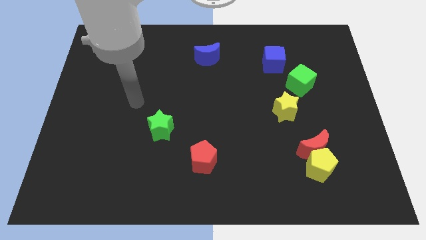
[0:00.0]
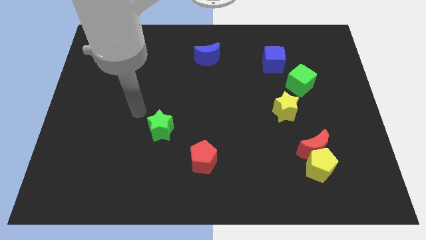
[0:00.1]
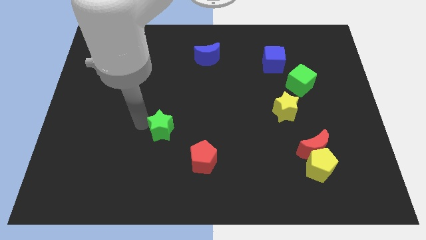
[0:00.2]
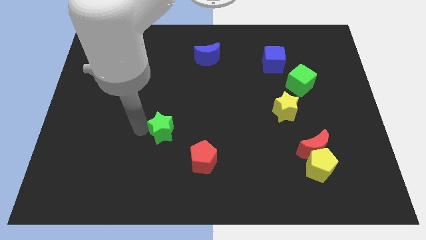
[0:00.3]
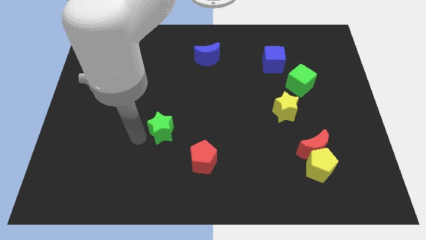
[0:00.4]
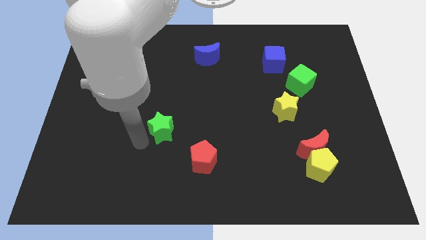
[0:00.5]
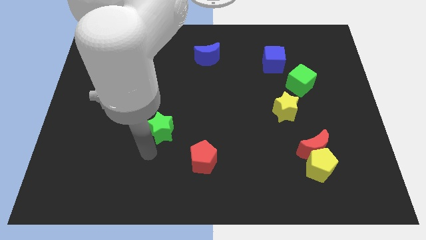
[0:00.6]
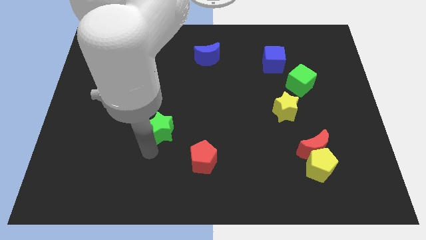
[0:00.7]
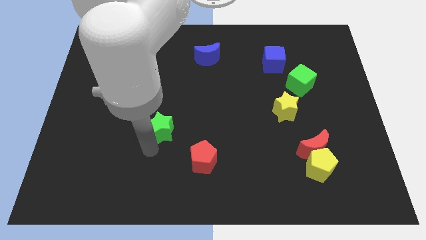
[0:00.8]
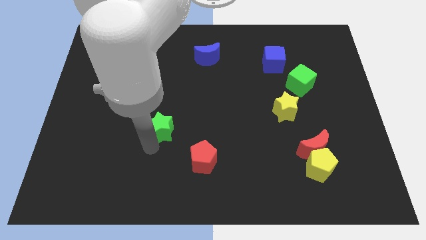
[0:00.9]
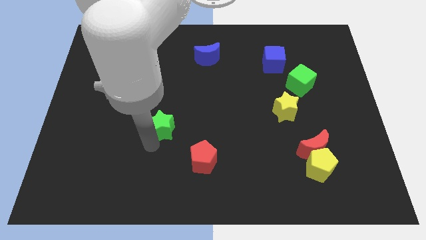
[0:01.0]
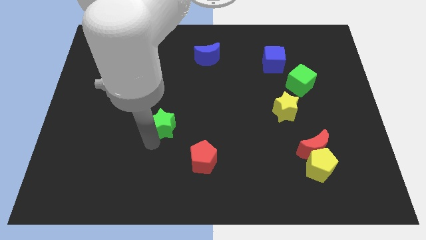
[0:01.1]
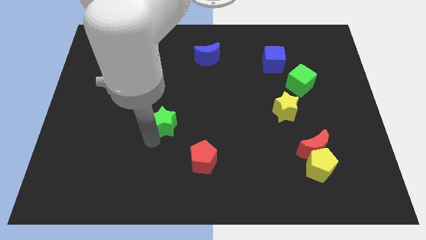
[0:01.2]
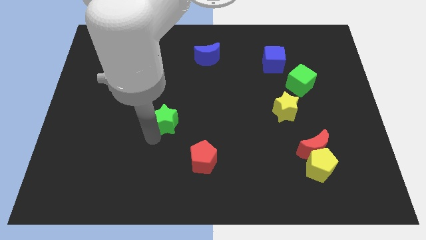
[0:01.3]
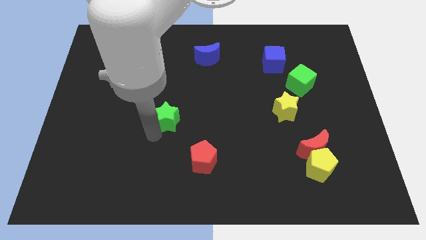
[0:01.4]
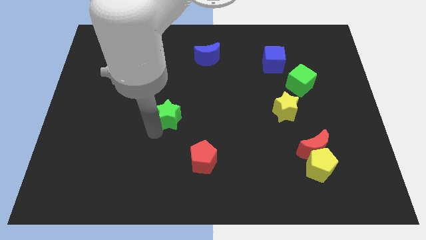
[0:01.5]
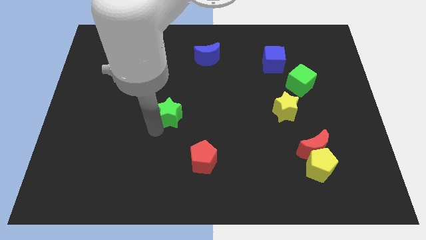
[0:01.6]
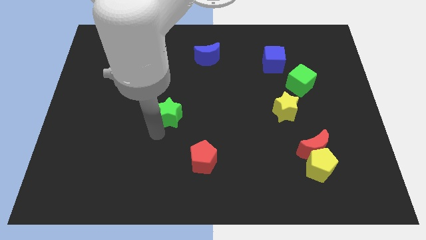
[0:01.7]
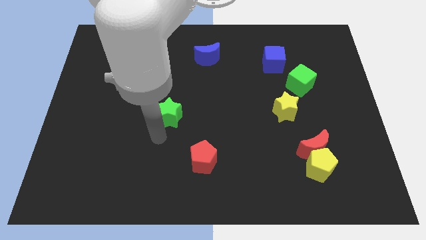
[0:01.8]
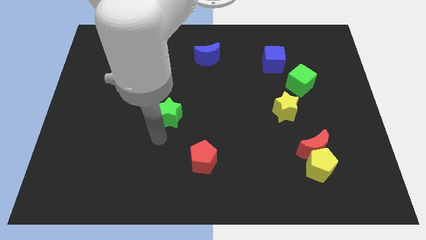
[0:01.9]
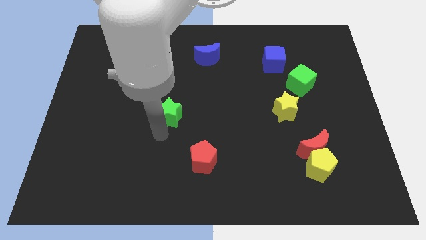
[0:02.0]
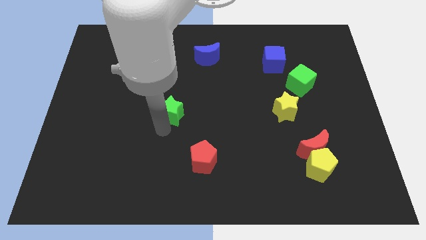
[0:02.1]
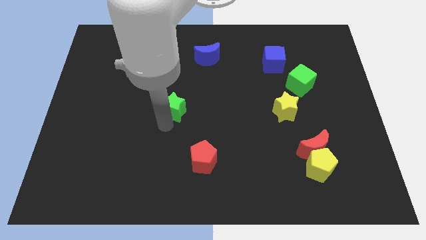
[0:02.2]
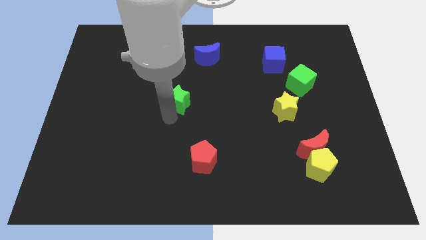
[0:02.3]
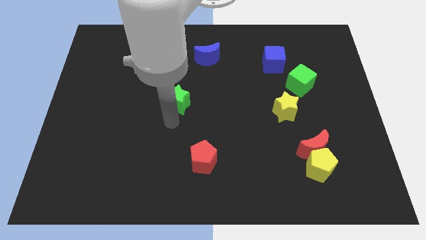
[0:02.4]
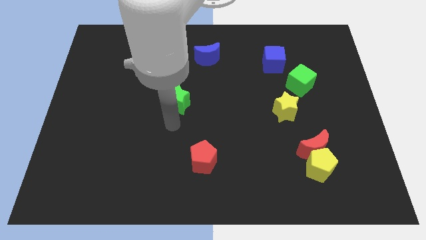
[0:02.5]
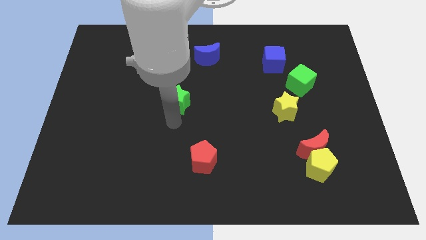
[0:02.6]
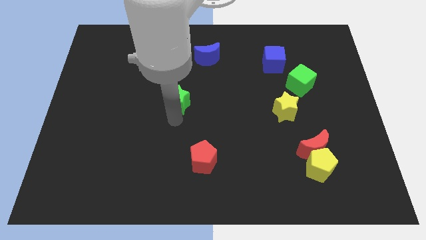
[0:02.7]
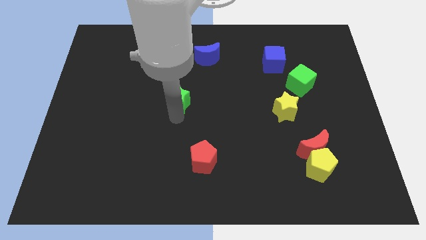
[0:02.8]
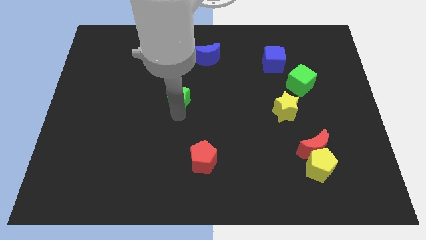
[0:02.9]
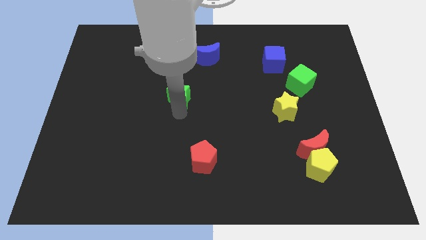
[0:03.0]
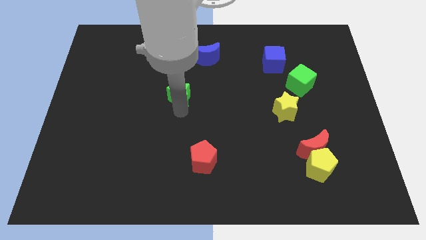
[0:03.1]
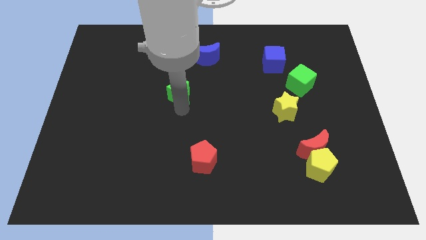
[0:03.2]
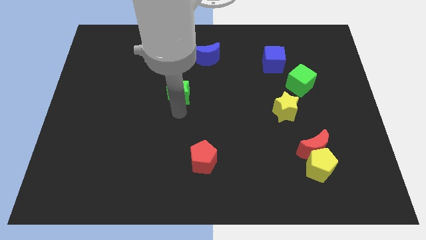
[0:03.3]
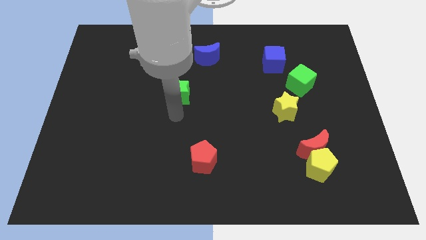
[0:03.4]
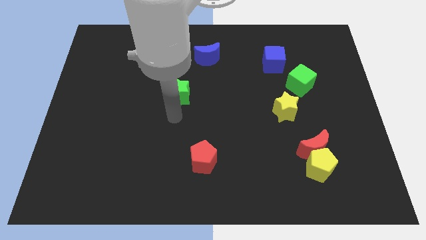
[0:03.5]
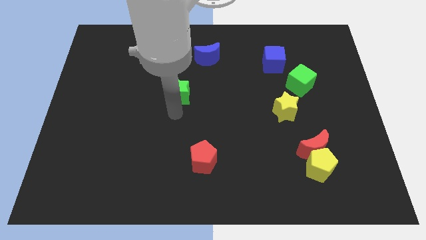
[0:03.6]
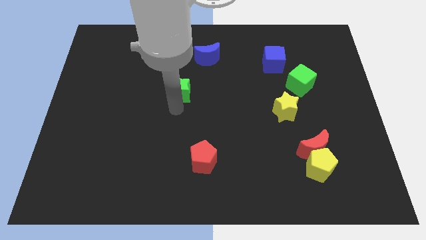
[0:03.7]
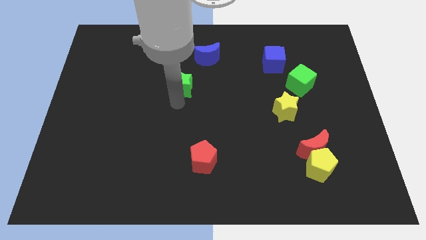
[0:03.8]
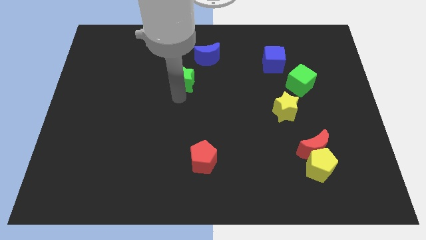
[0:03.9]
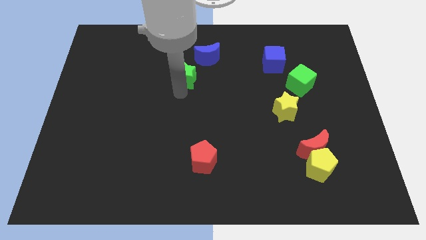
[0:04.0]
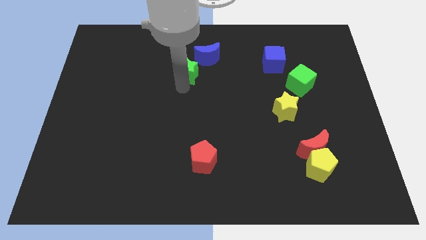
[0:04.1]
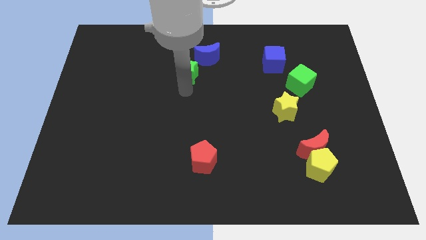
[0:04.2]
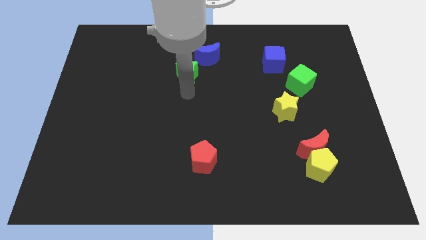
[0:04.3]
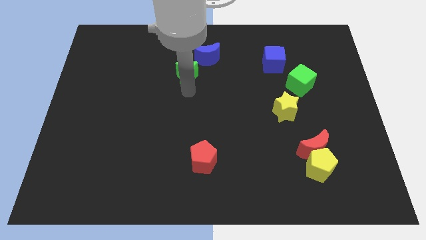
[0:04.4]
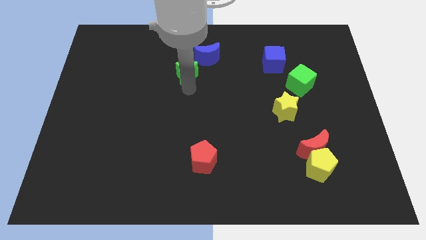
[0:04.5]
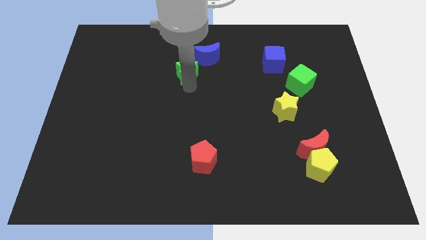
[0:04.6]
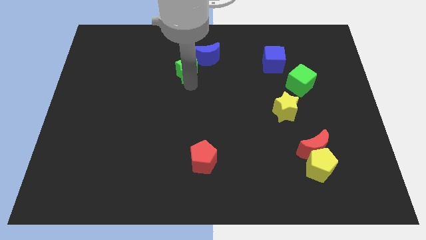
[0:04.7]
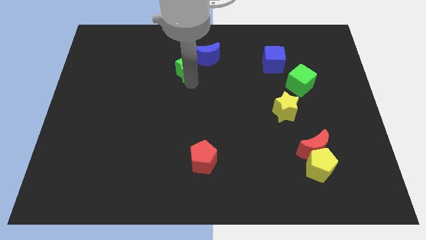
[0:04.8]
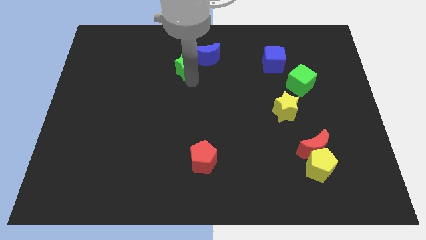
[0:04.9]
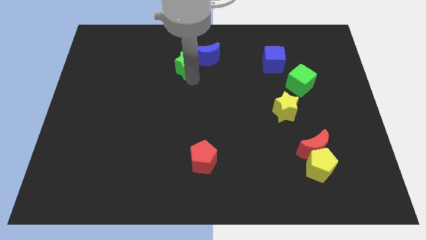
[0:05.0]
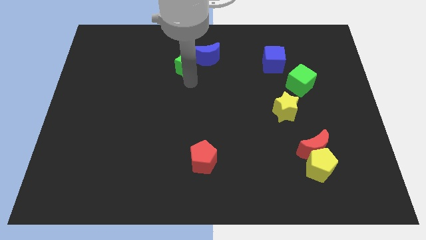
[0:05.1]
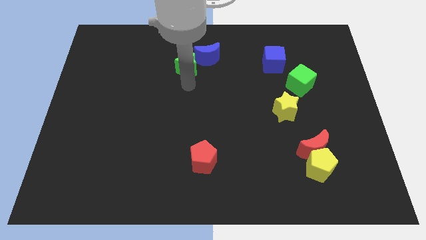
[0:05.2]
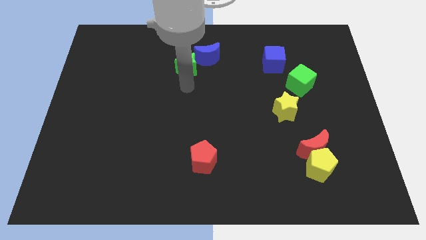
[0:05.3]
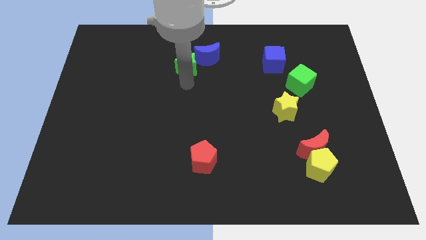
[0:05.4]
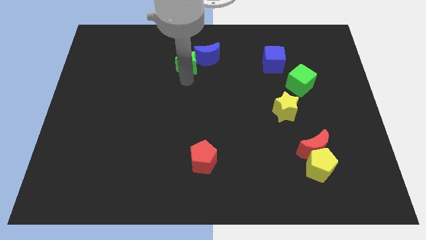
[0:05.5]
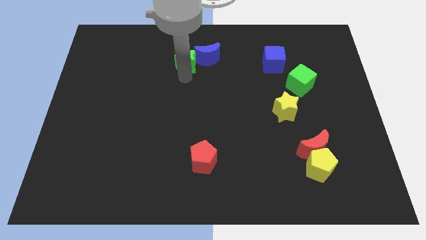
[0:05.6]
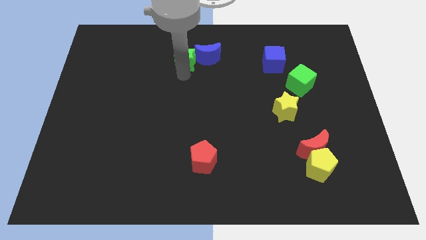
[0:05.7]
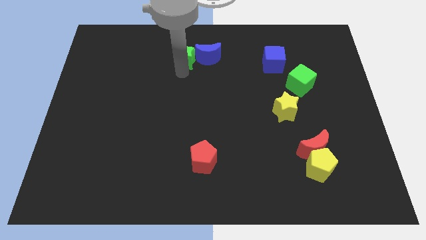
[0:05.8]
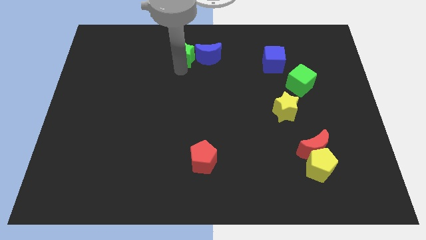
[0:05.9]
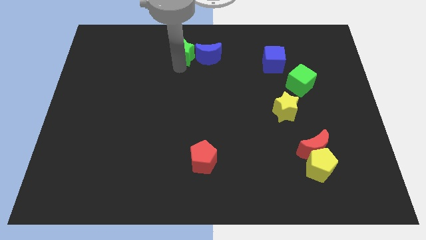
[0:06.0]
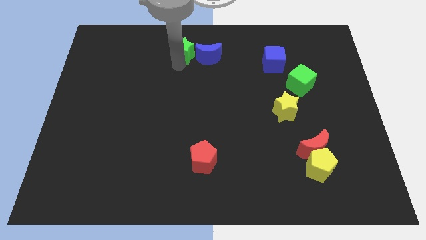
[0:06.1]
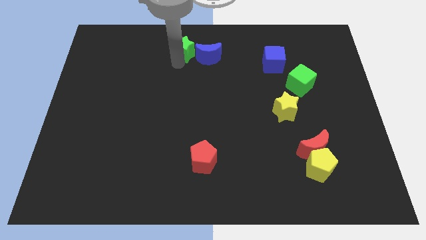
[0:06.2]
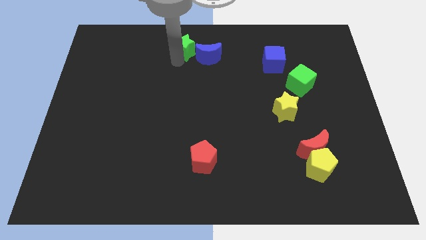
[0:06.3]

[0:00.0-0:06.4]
move the green star to the top side

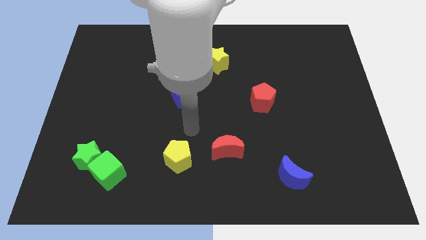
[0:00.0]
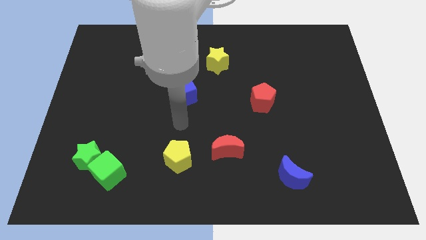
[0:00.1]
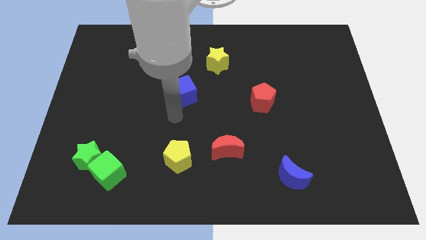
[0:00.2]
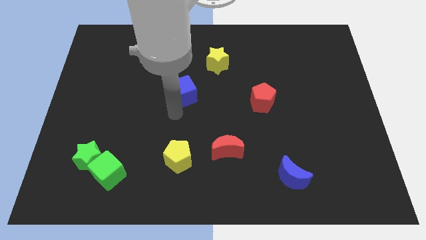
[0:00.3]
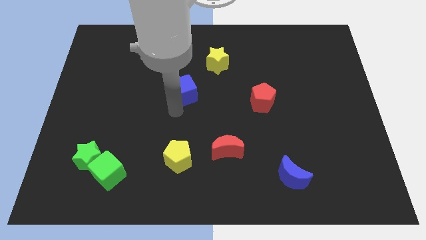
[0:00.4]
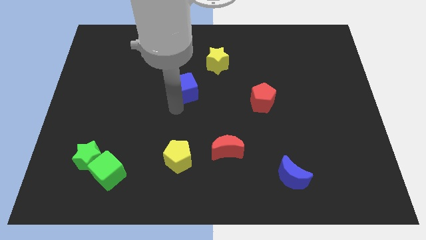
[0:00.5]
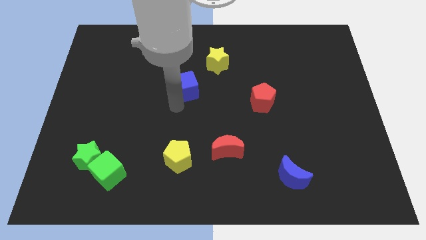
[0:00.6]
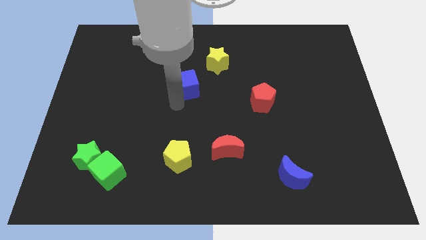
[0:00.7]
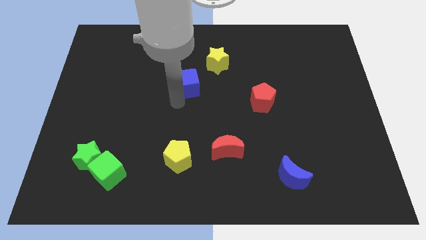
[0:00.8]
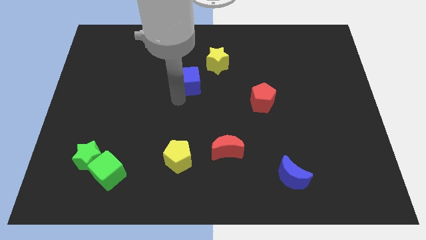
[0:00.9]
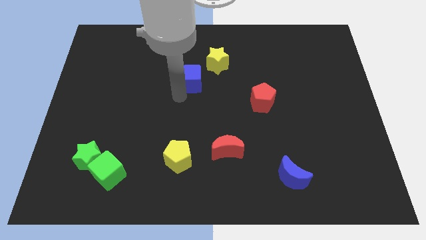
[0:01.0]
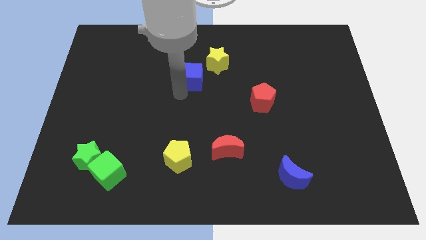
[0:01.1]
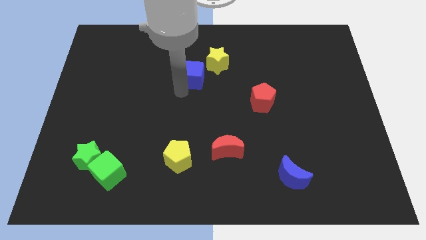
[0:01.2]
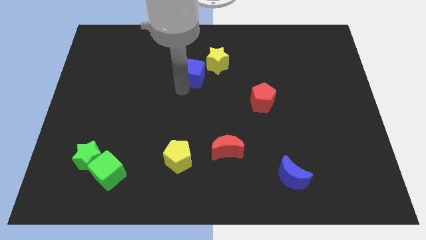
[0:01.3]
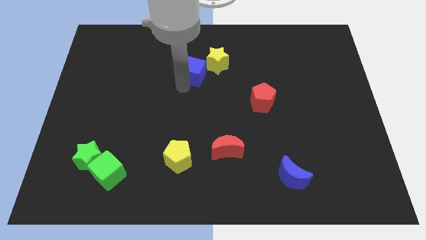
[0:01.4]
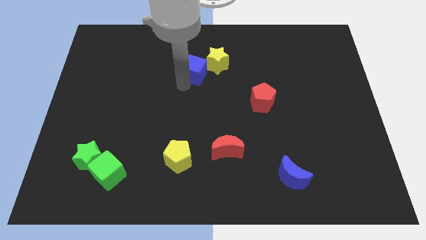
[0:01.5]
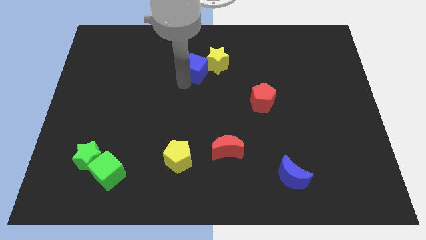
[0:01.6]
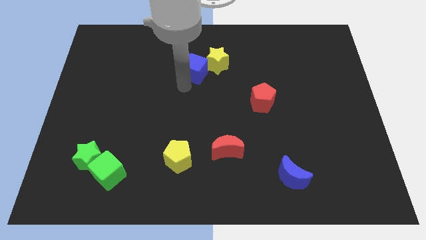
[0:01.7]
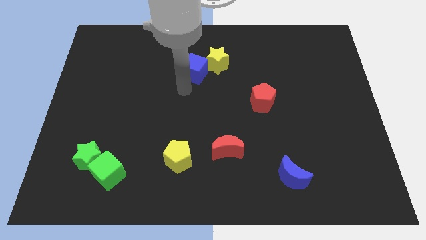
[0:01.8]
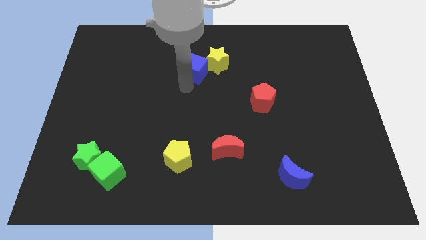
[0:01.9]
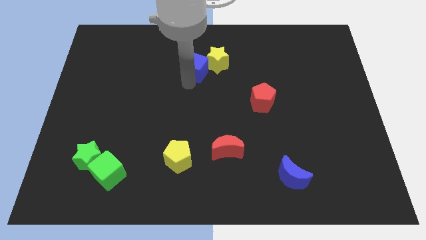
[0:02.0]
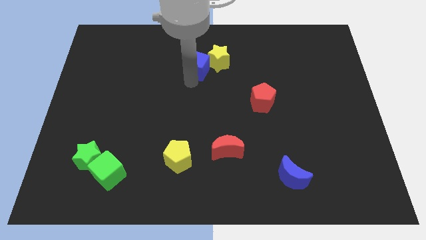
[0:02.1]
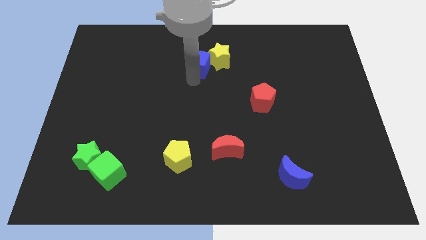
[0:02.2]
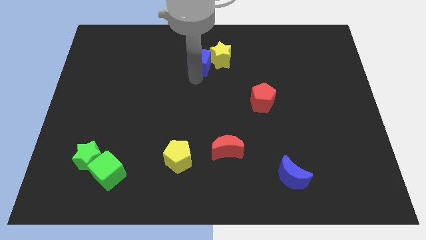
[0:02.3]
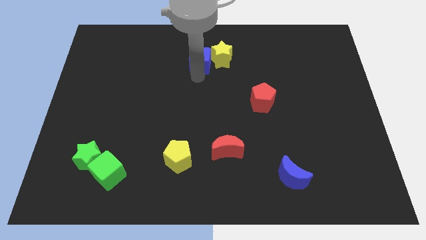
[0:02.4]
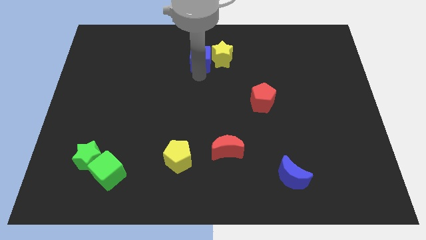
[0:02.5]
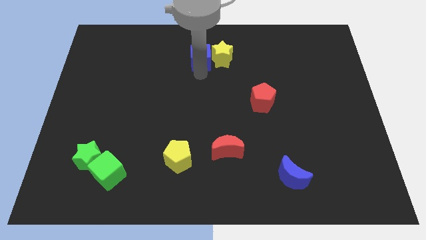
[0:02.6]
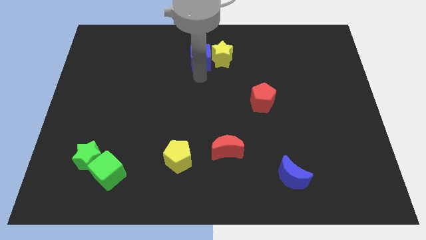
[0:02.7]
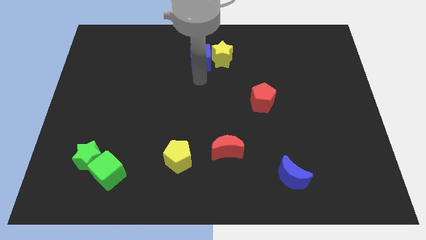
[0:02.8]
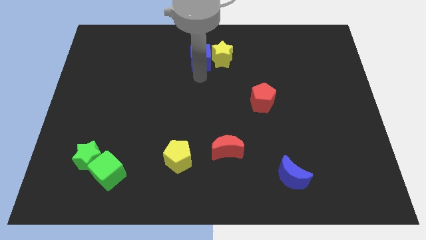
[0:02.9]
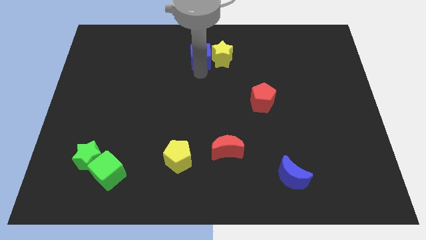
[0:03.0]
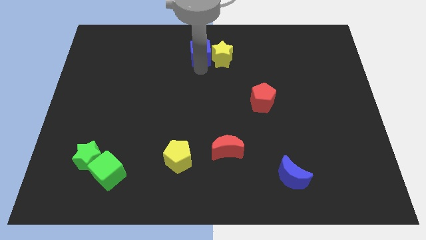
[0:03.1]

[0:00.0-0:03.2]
put the blue cube to the top side
